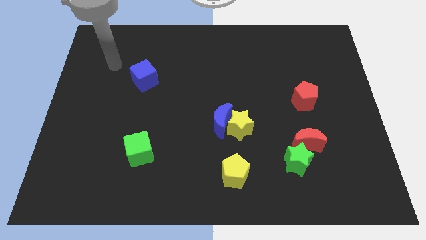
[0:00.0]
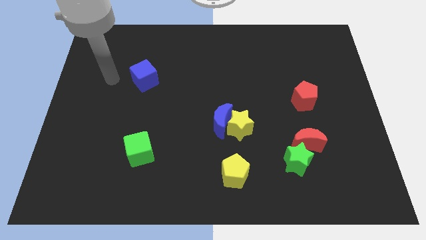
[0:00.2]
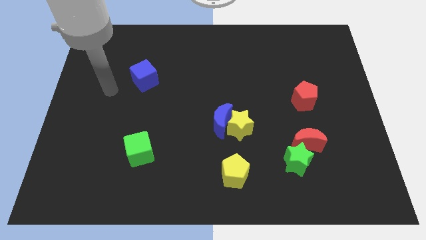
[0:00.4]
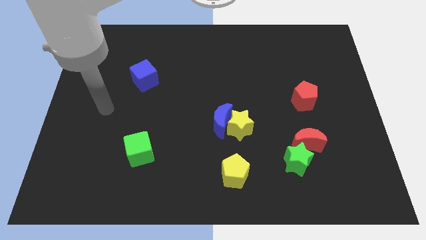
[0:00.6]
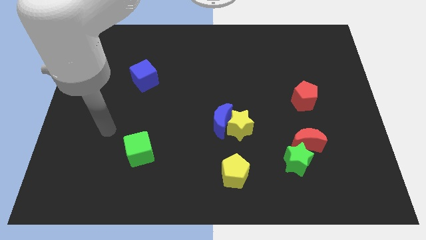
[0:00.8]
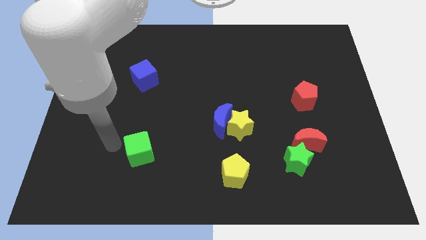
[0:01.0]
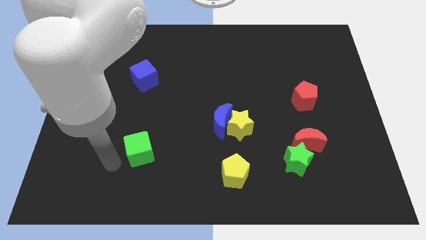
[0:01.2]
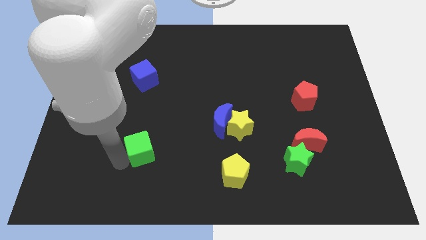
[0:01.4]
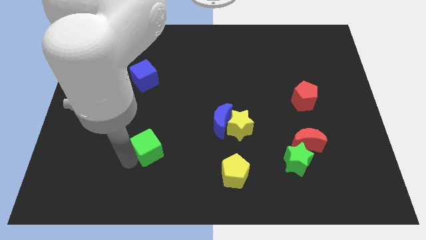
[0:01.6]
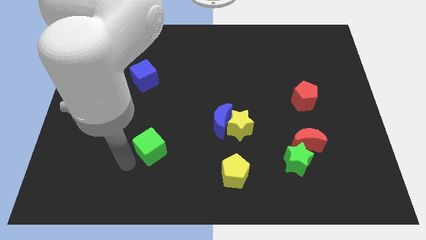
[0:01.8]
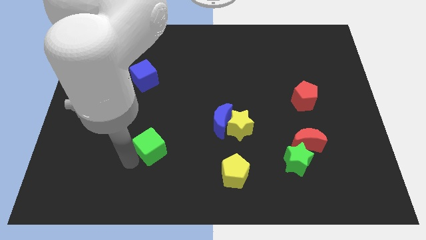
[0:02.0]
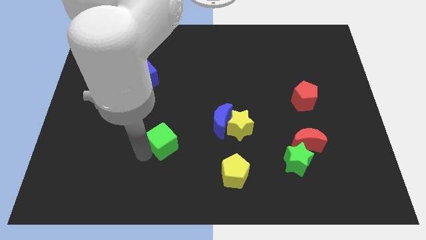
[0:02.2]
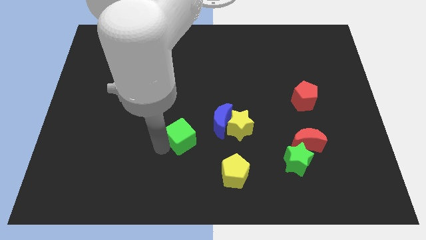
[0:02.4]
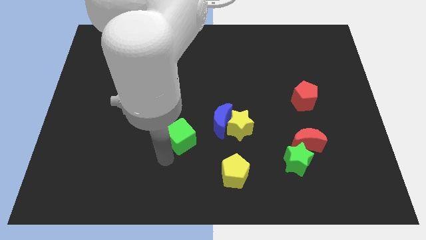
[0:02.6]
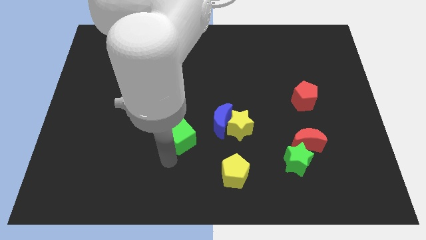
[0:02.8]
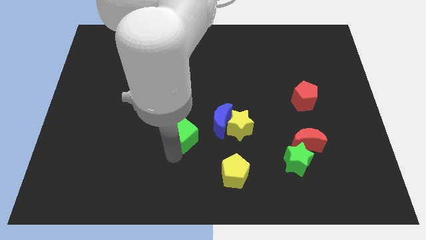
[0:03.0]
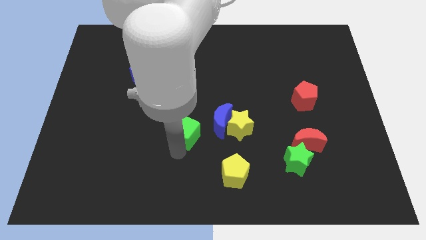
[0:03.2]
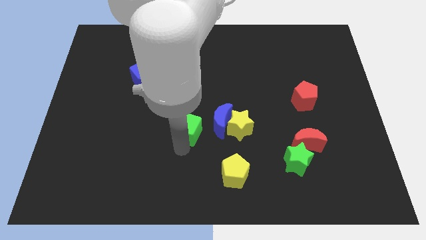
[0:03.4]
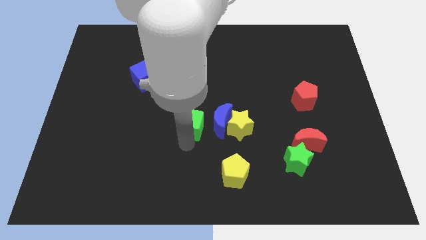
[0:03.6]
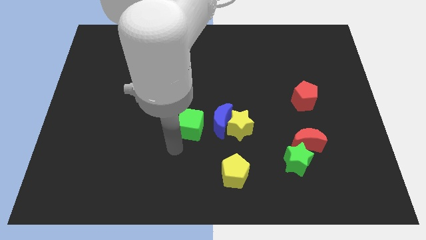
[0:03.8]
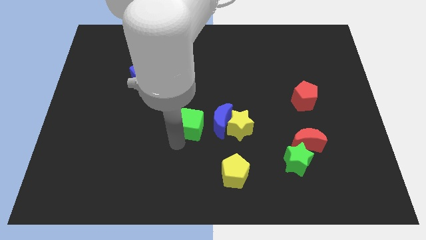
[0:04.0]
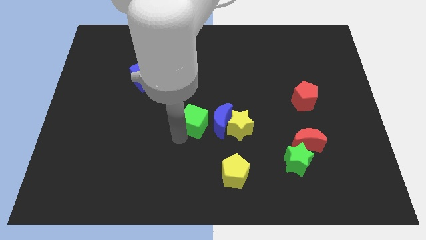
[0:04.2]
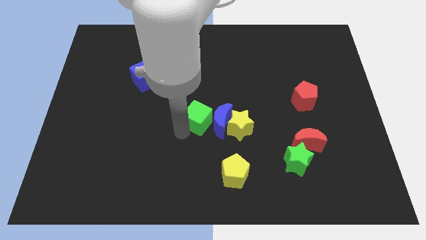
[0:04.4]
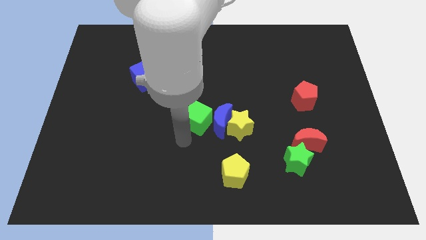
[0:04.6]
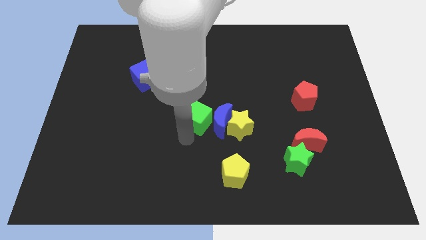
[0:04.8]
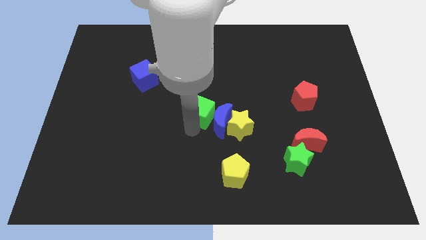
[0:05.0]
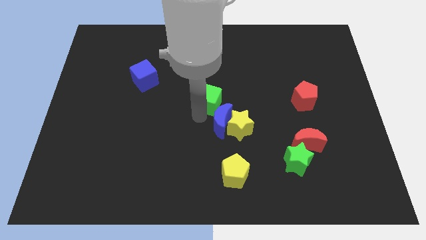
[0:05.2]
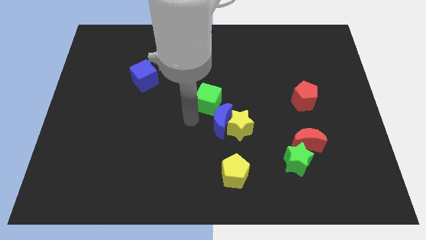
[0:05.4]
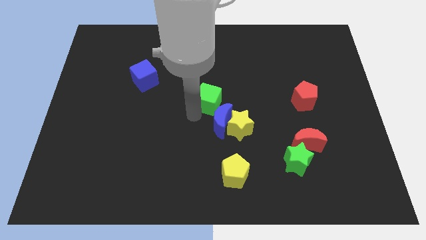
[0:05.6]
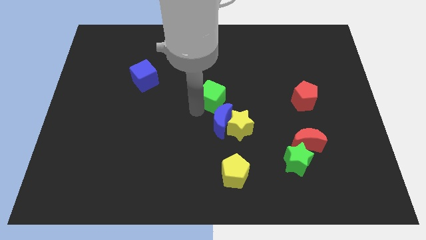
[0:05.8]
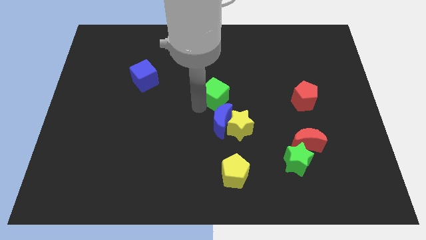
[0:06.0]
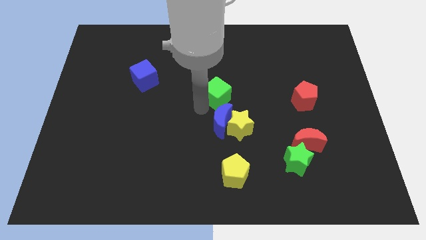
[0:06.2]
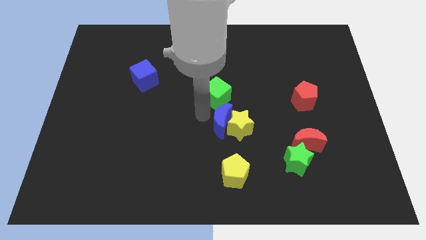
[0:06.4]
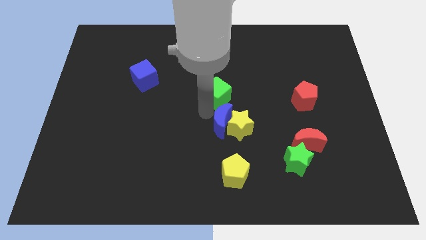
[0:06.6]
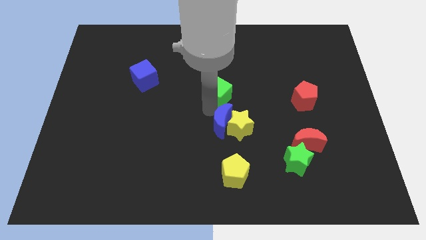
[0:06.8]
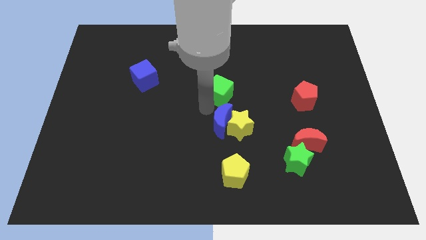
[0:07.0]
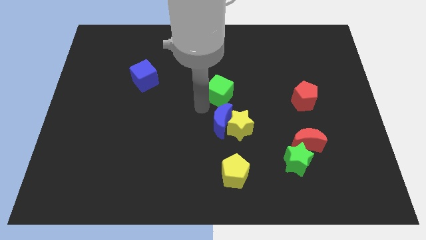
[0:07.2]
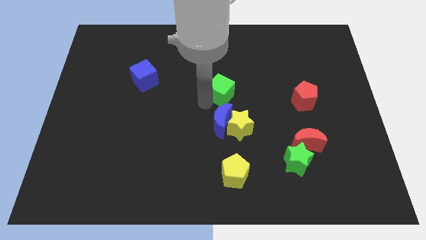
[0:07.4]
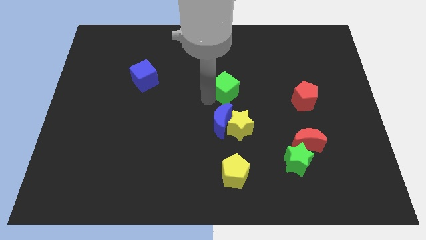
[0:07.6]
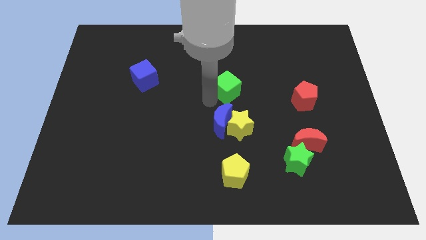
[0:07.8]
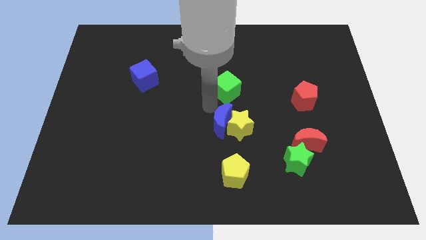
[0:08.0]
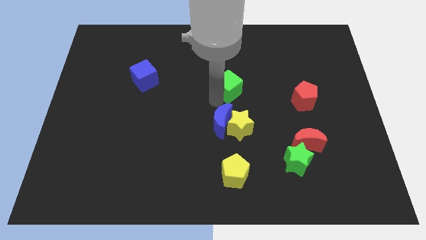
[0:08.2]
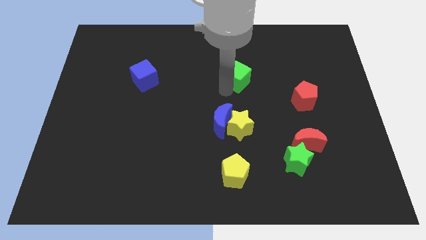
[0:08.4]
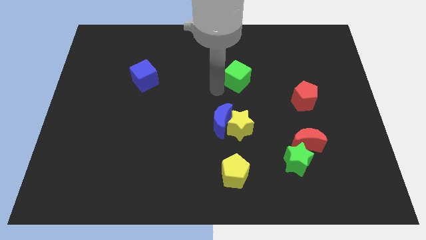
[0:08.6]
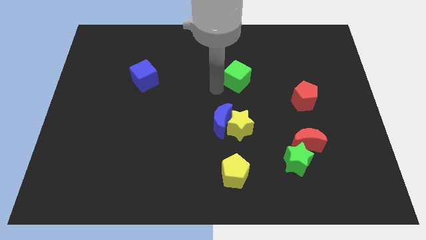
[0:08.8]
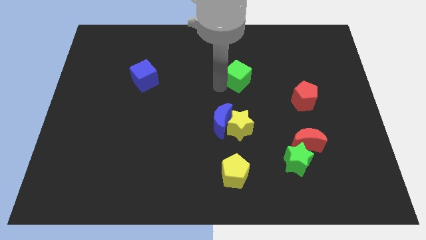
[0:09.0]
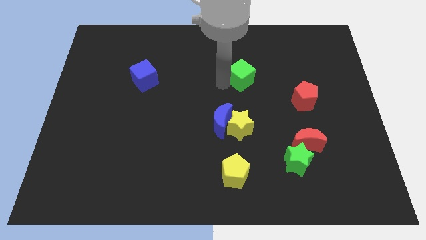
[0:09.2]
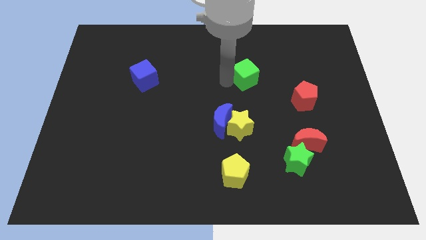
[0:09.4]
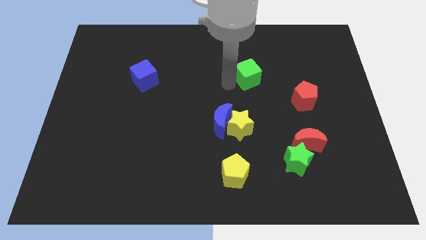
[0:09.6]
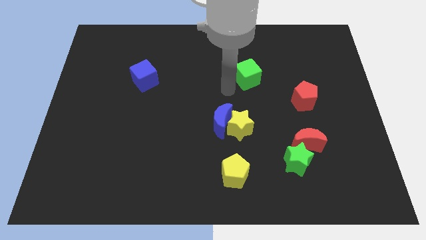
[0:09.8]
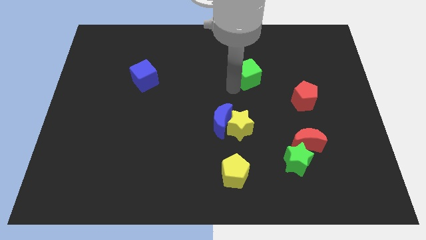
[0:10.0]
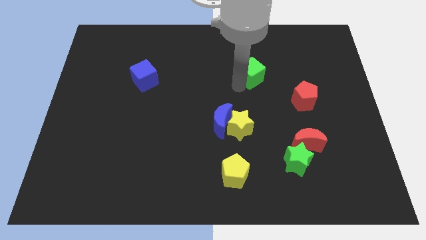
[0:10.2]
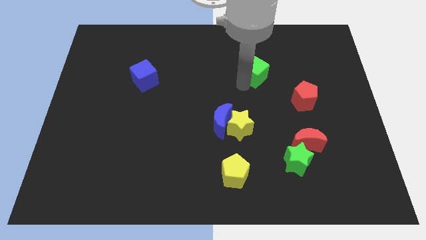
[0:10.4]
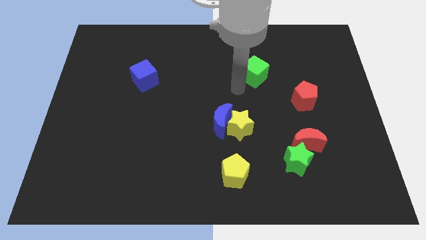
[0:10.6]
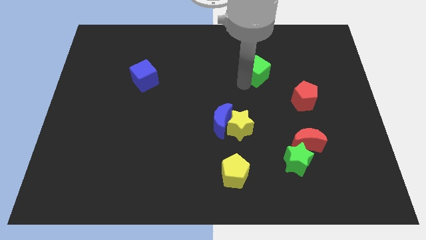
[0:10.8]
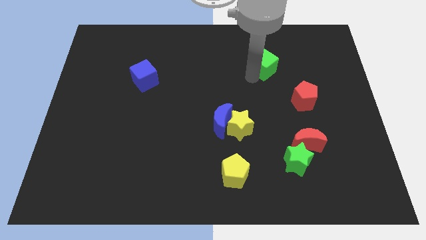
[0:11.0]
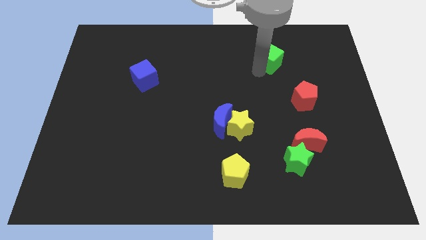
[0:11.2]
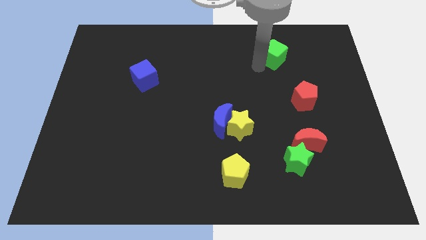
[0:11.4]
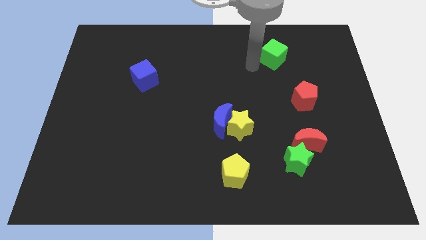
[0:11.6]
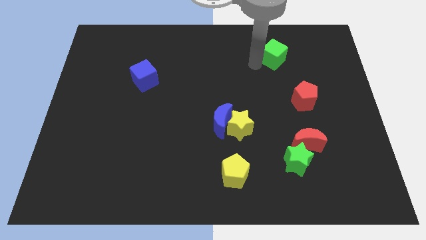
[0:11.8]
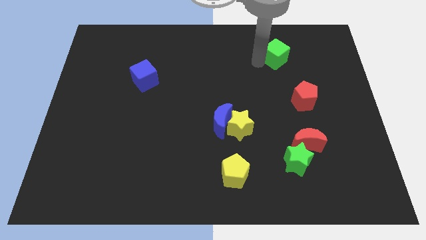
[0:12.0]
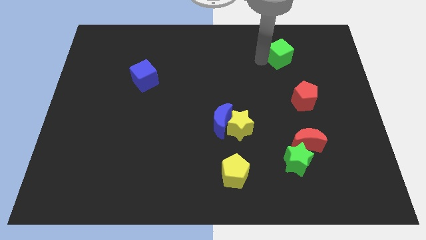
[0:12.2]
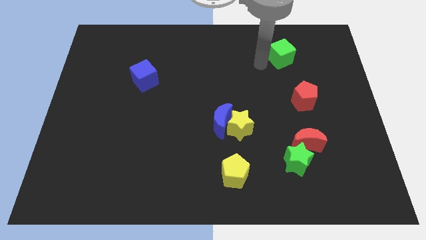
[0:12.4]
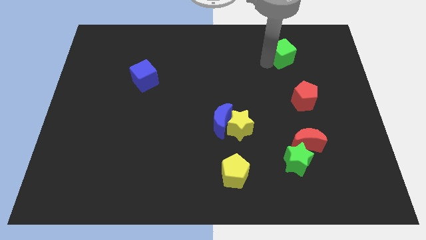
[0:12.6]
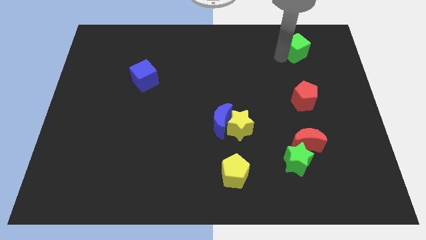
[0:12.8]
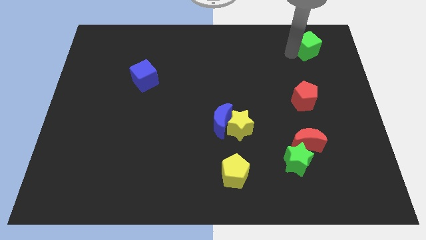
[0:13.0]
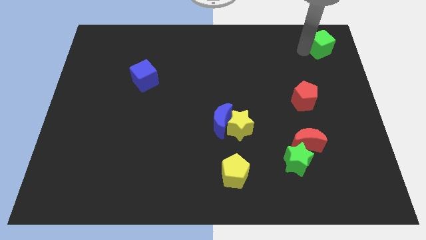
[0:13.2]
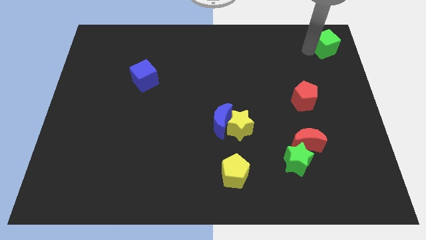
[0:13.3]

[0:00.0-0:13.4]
slide the green cube to the top right corner
